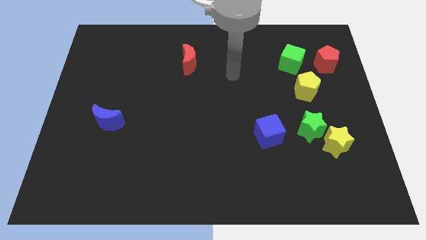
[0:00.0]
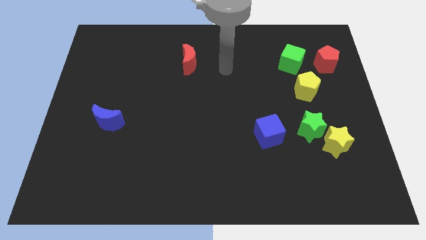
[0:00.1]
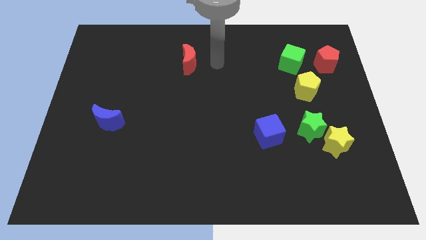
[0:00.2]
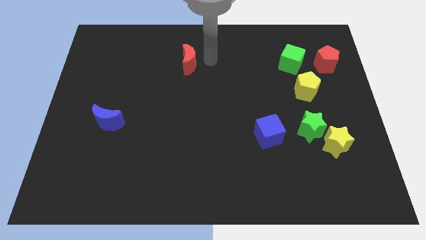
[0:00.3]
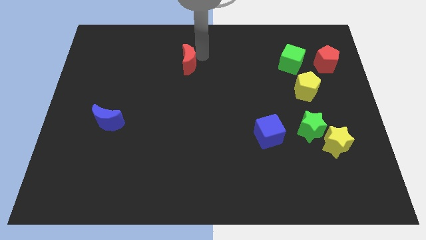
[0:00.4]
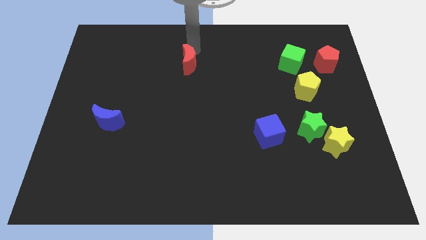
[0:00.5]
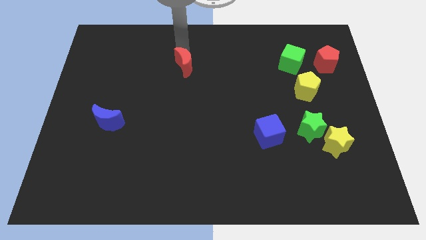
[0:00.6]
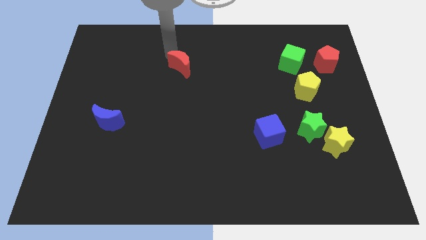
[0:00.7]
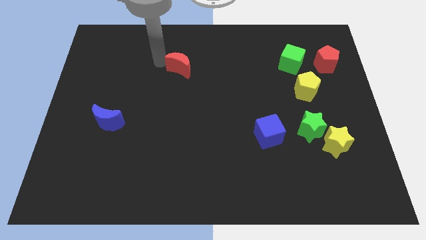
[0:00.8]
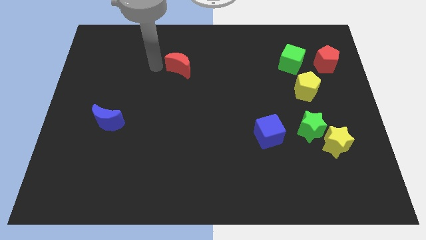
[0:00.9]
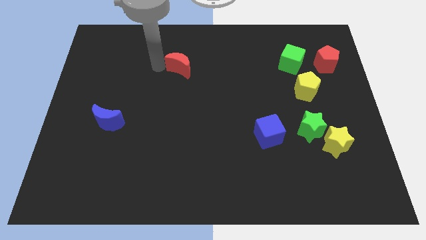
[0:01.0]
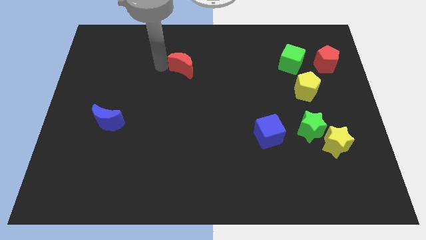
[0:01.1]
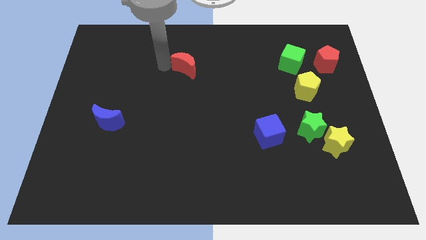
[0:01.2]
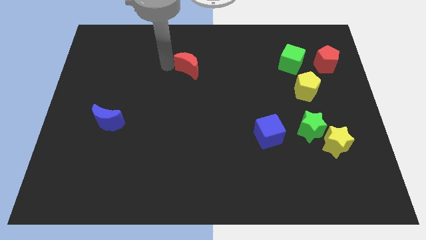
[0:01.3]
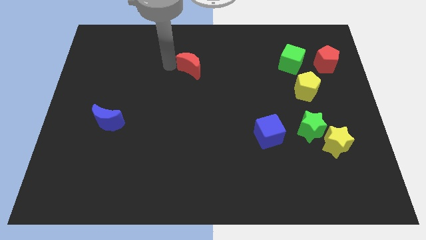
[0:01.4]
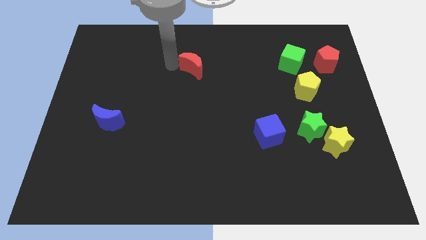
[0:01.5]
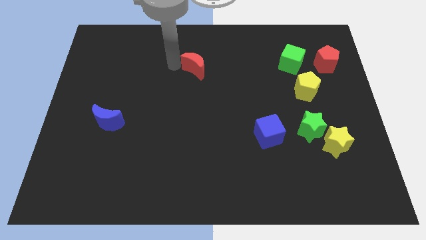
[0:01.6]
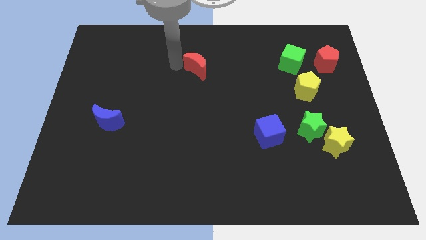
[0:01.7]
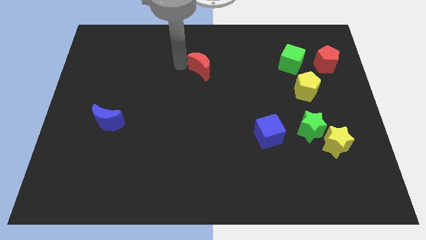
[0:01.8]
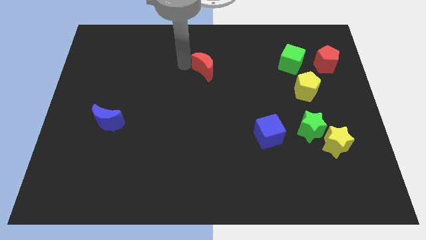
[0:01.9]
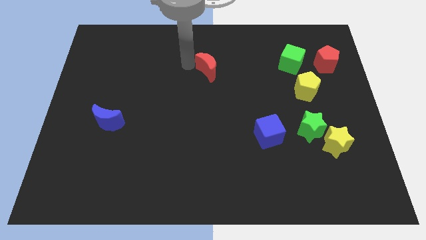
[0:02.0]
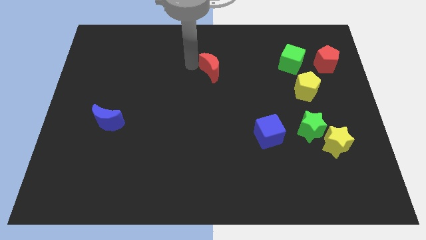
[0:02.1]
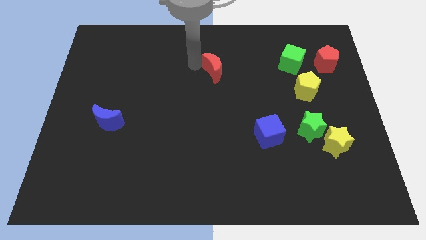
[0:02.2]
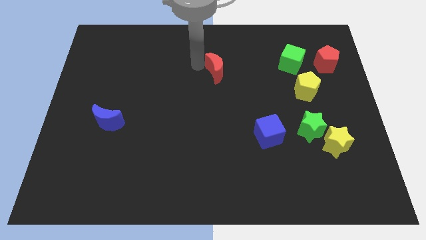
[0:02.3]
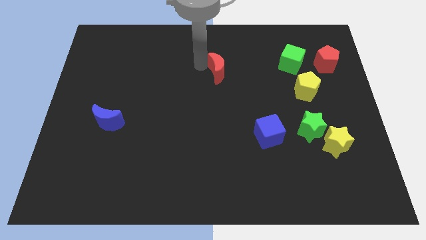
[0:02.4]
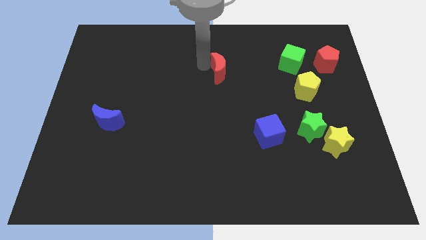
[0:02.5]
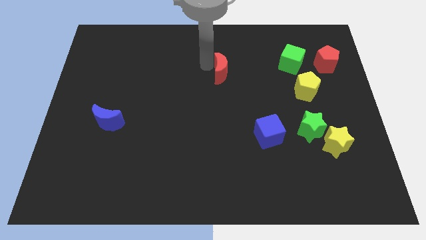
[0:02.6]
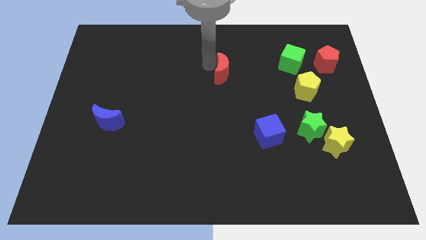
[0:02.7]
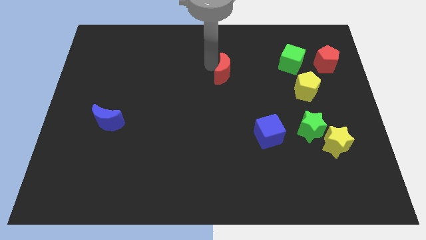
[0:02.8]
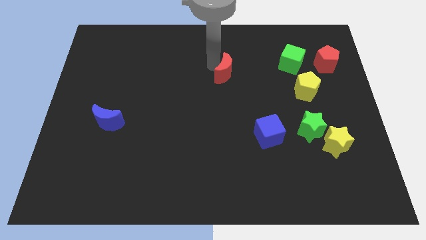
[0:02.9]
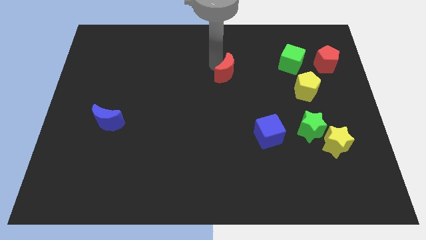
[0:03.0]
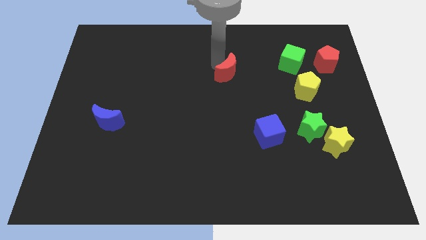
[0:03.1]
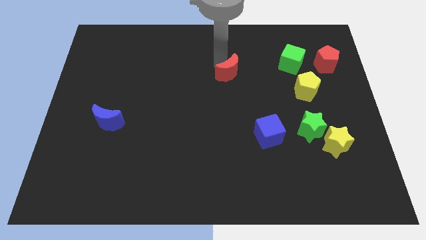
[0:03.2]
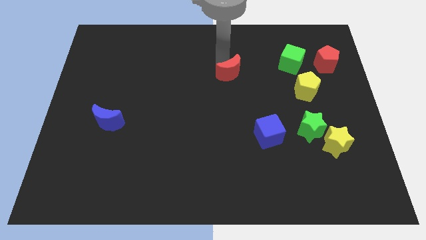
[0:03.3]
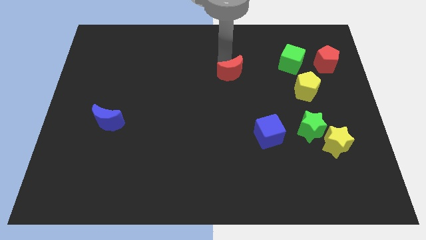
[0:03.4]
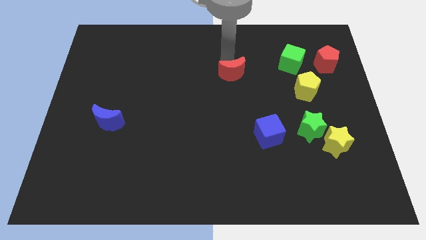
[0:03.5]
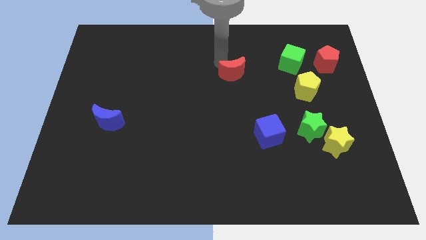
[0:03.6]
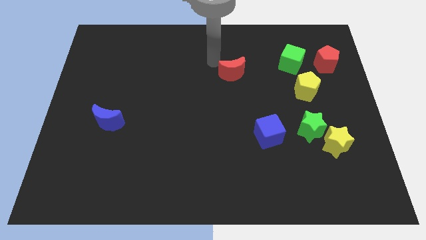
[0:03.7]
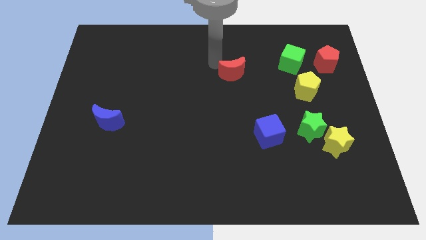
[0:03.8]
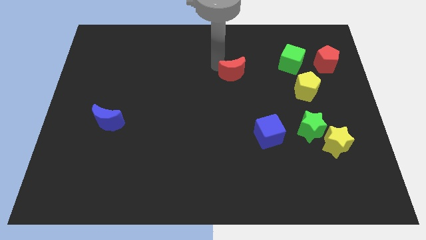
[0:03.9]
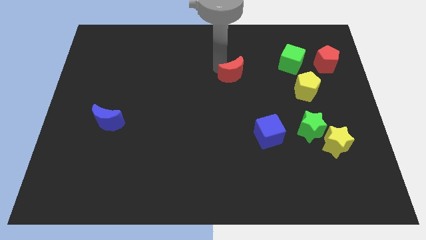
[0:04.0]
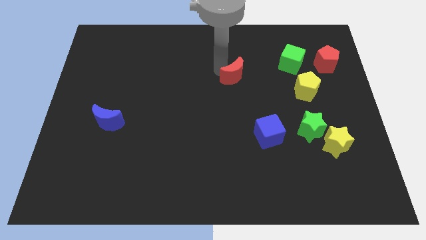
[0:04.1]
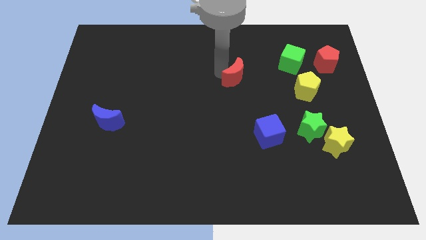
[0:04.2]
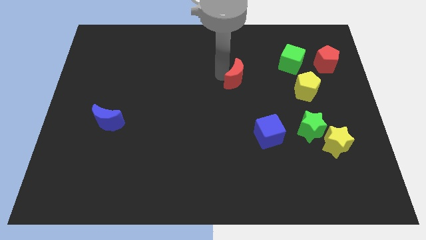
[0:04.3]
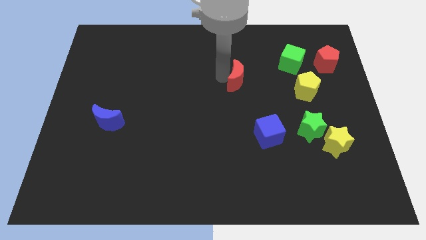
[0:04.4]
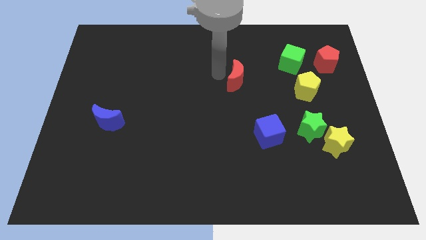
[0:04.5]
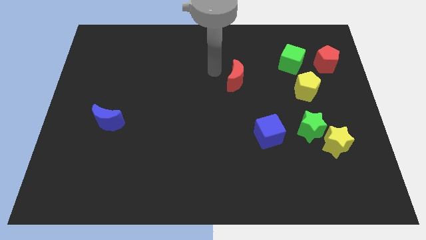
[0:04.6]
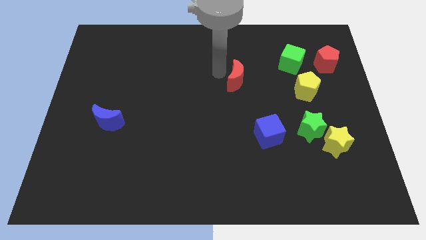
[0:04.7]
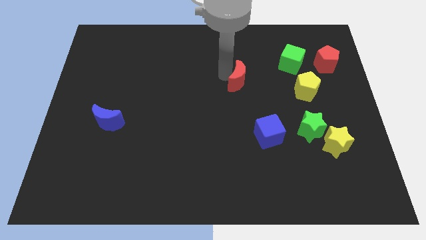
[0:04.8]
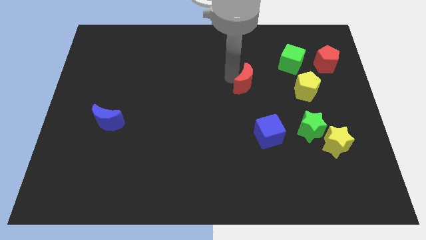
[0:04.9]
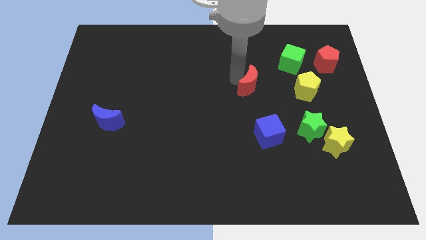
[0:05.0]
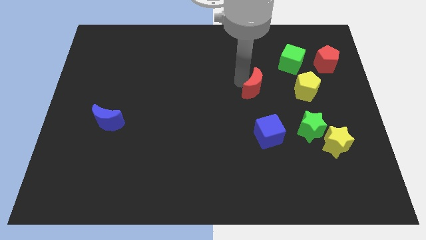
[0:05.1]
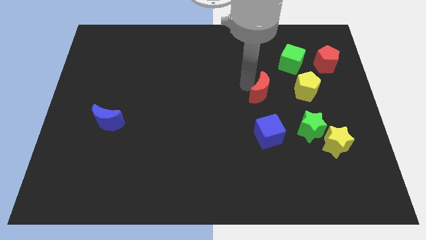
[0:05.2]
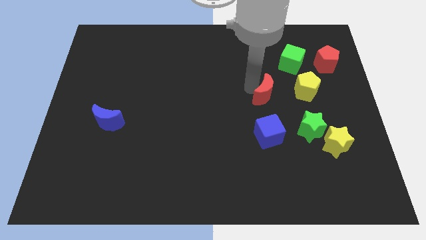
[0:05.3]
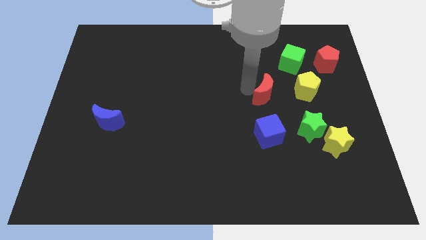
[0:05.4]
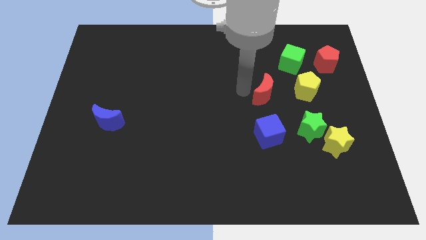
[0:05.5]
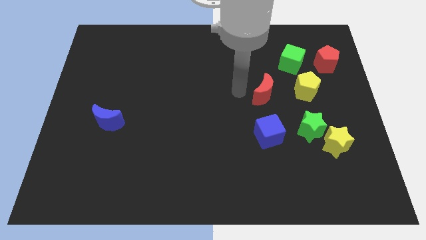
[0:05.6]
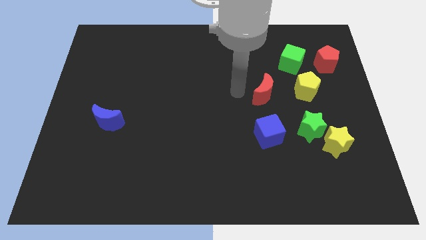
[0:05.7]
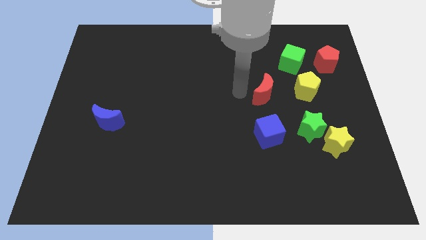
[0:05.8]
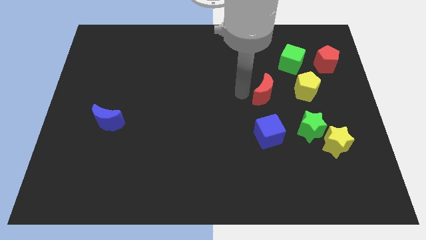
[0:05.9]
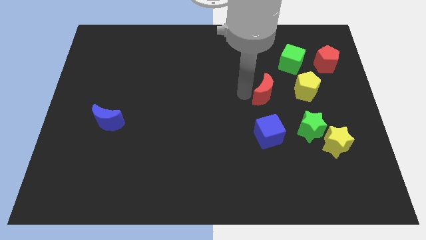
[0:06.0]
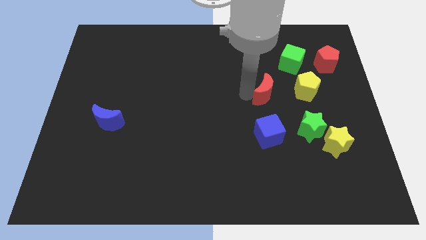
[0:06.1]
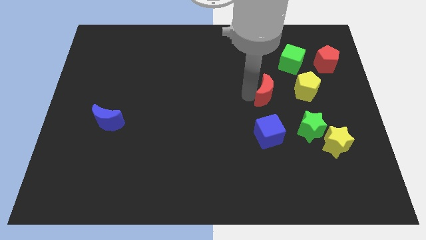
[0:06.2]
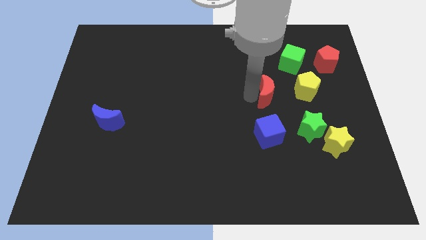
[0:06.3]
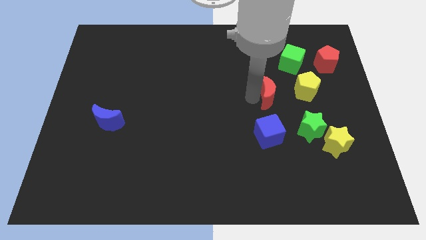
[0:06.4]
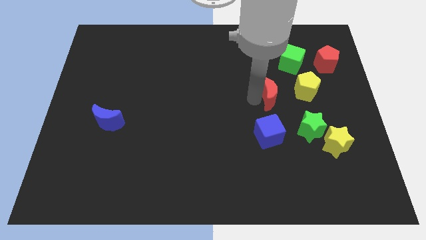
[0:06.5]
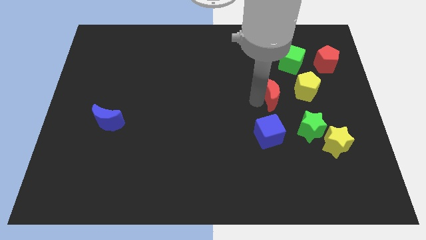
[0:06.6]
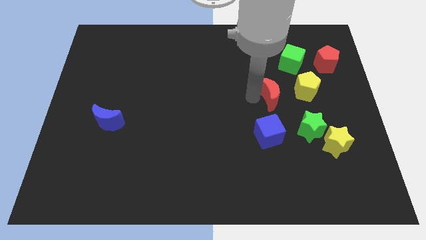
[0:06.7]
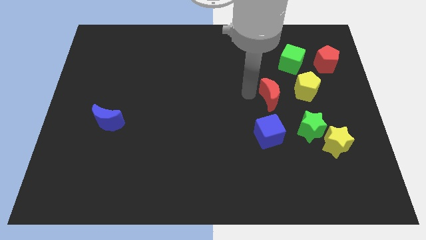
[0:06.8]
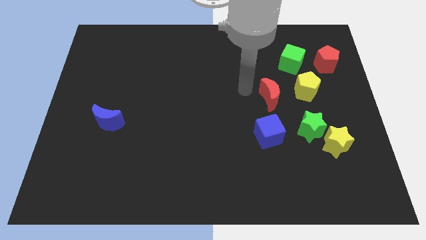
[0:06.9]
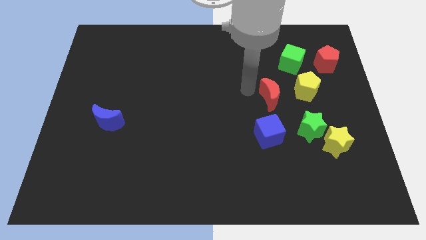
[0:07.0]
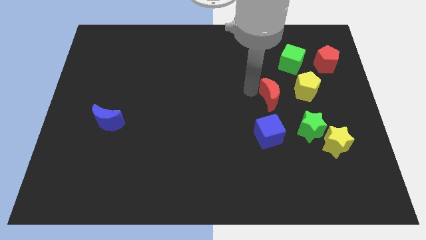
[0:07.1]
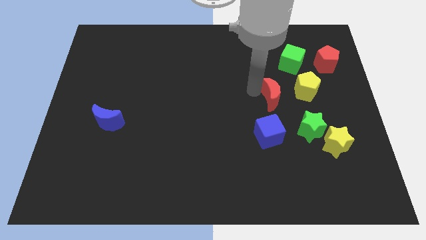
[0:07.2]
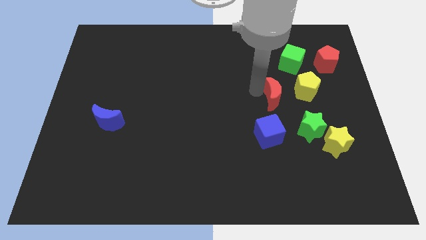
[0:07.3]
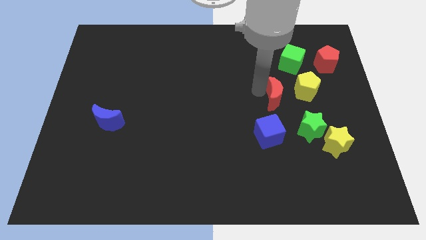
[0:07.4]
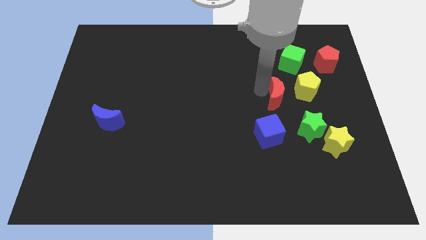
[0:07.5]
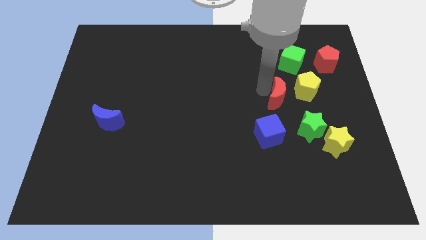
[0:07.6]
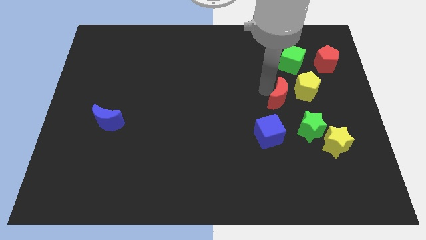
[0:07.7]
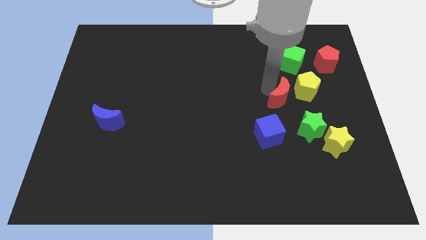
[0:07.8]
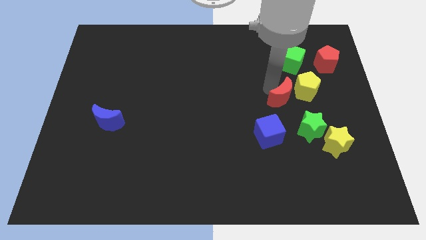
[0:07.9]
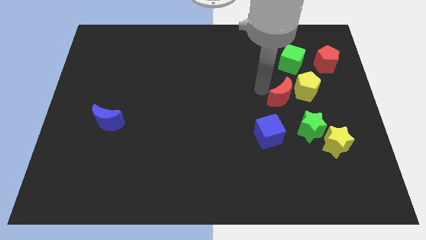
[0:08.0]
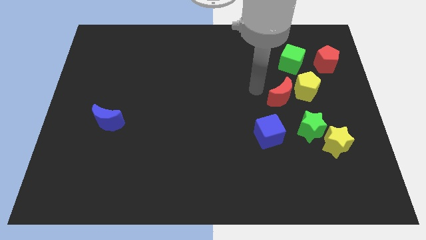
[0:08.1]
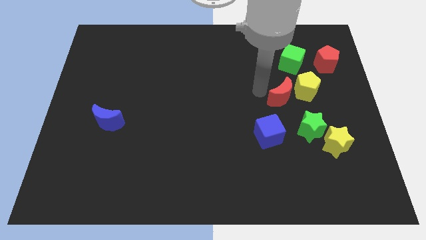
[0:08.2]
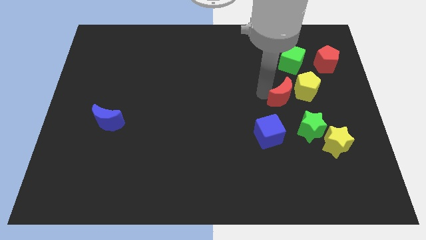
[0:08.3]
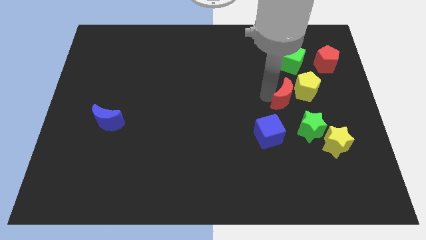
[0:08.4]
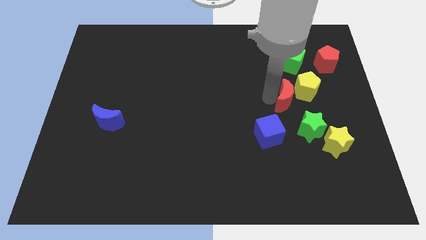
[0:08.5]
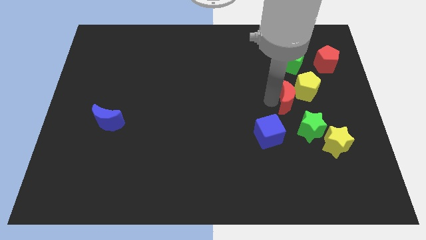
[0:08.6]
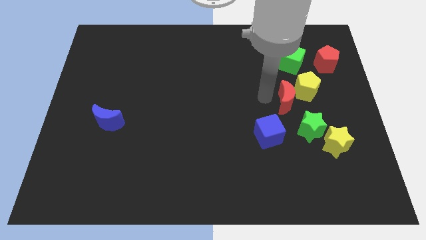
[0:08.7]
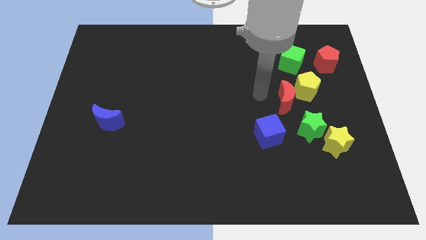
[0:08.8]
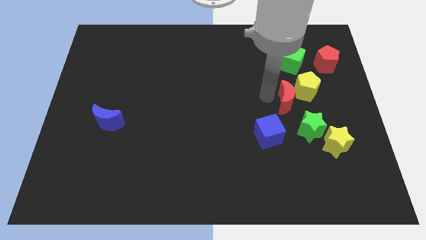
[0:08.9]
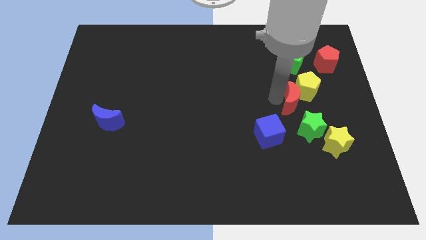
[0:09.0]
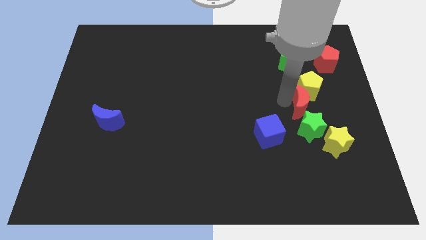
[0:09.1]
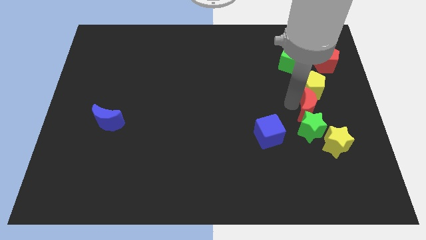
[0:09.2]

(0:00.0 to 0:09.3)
push the red moon diagonally up and to the right of the green star
